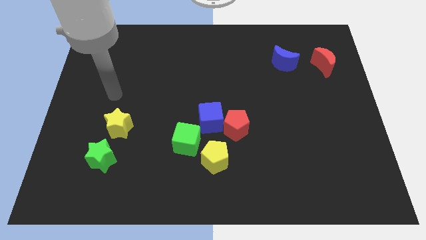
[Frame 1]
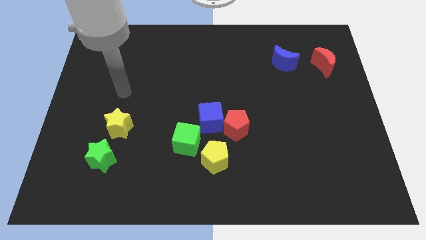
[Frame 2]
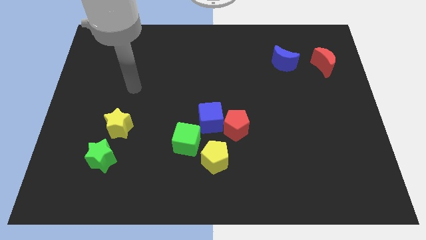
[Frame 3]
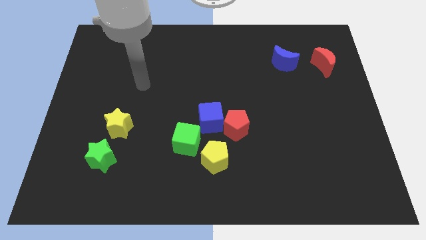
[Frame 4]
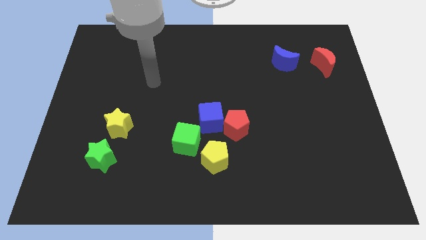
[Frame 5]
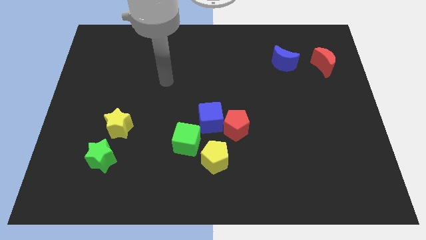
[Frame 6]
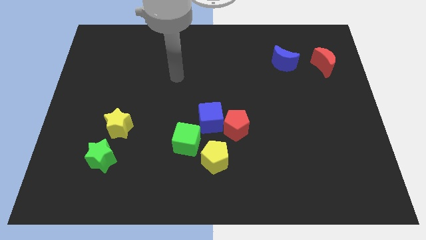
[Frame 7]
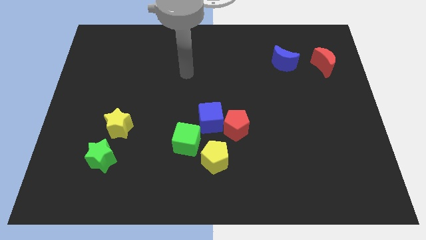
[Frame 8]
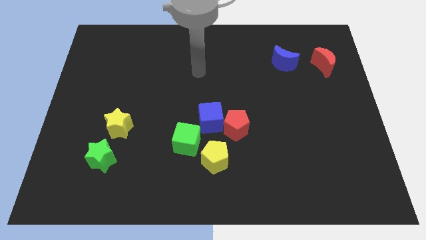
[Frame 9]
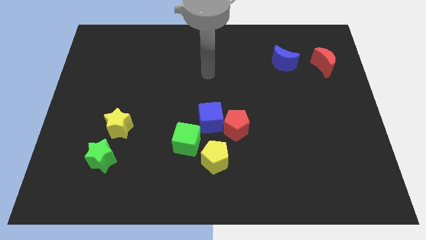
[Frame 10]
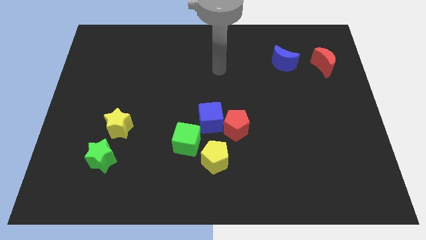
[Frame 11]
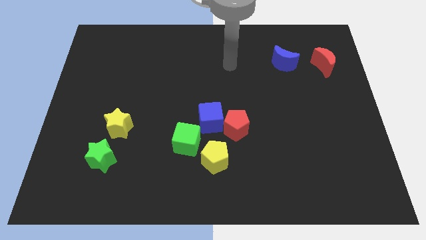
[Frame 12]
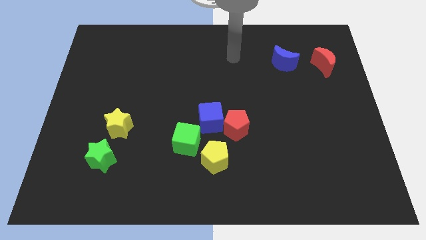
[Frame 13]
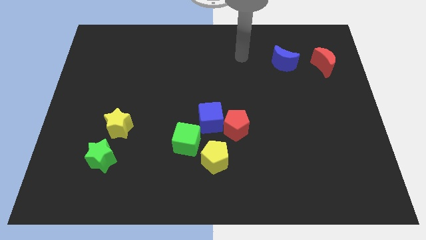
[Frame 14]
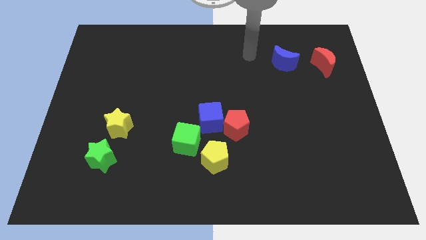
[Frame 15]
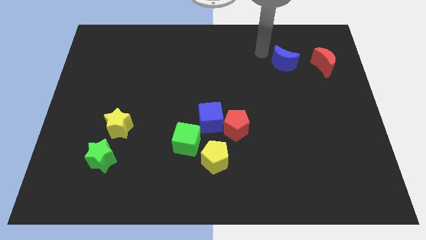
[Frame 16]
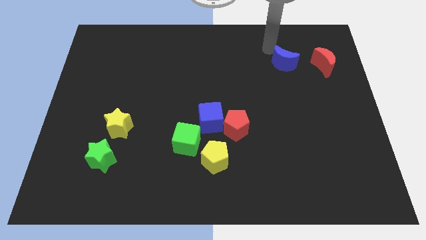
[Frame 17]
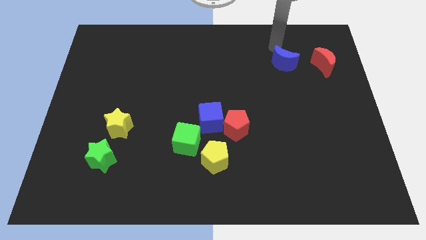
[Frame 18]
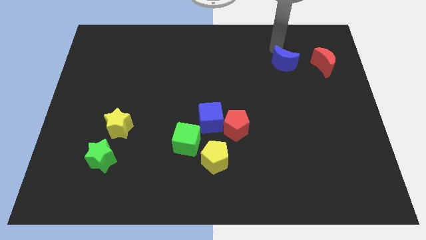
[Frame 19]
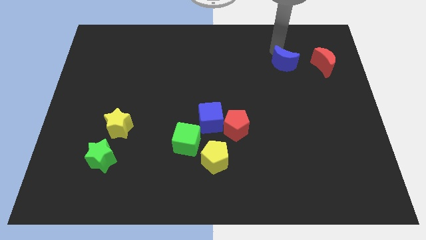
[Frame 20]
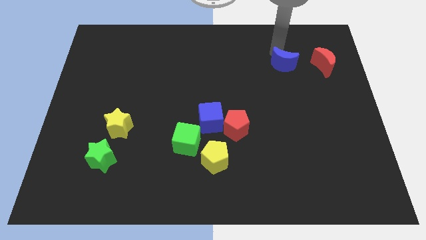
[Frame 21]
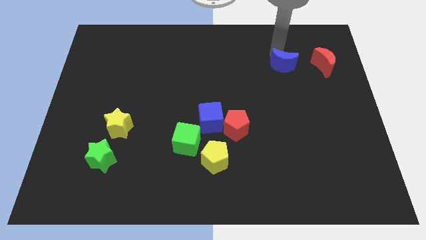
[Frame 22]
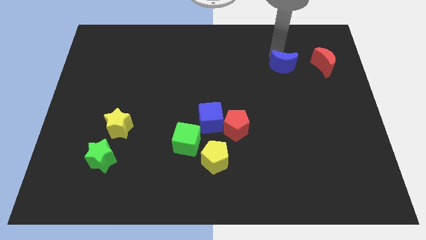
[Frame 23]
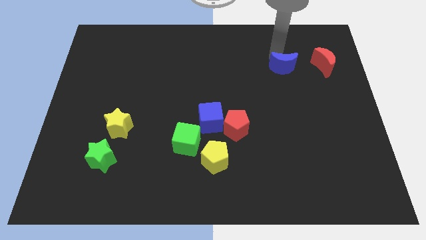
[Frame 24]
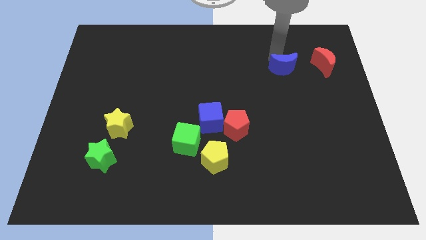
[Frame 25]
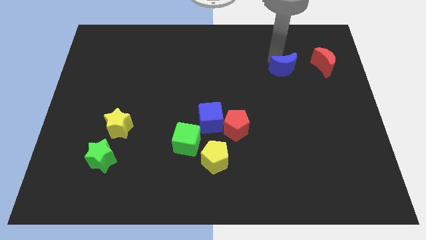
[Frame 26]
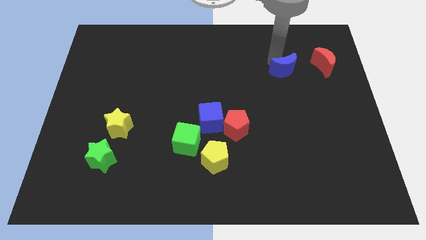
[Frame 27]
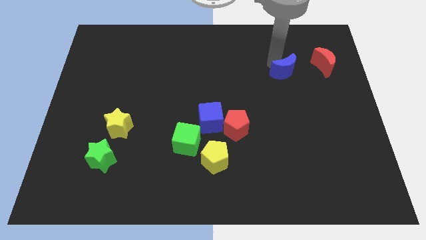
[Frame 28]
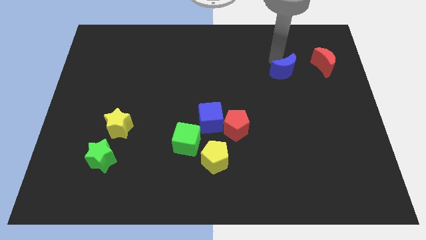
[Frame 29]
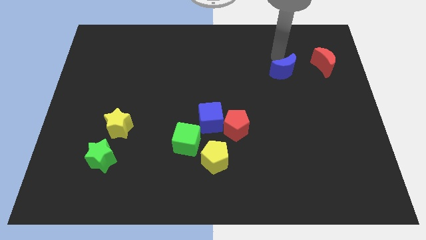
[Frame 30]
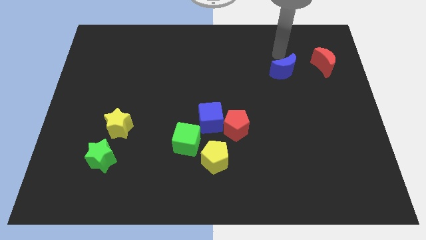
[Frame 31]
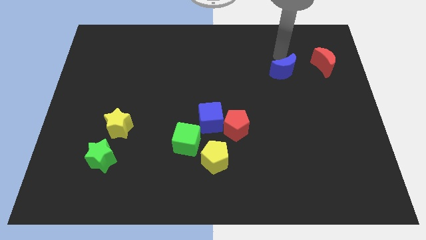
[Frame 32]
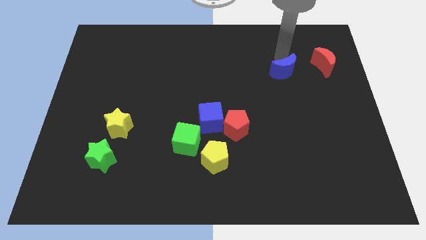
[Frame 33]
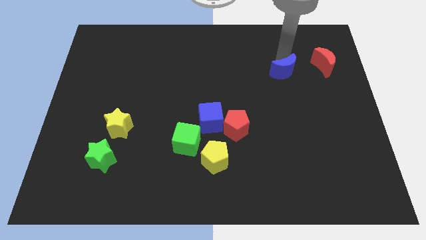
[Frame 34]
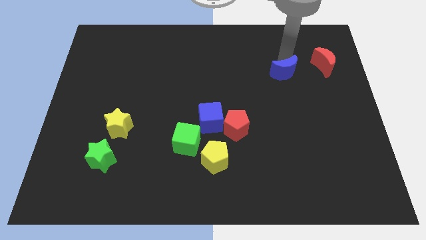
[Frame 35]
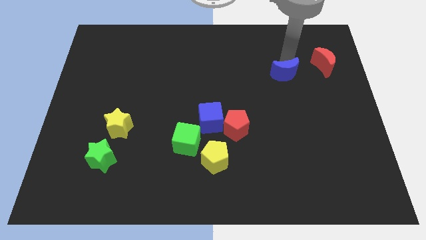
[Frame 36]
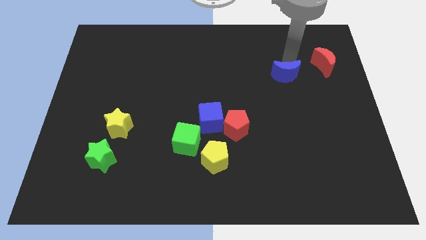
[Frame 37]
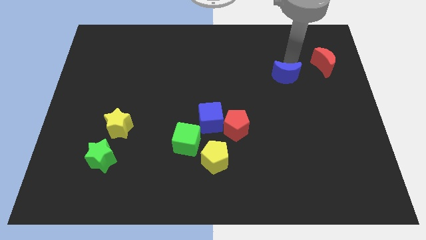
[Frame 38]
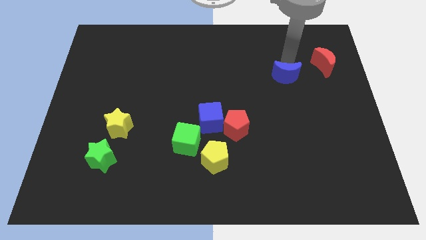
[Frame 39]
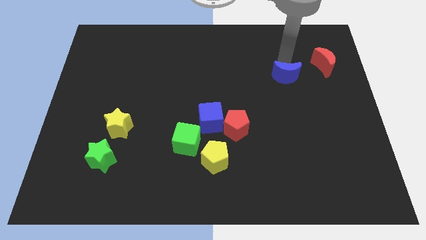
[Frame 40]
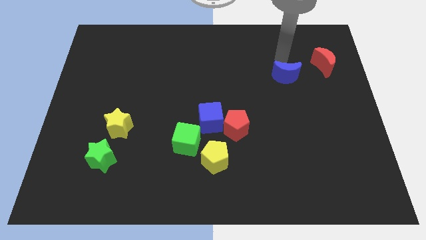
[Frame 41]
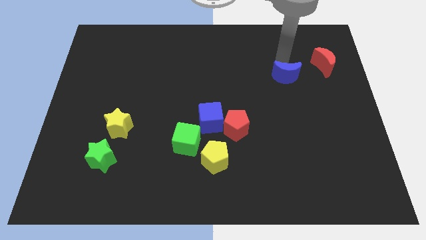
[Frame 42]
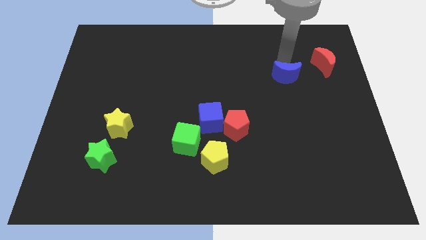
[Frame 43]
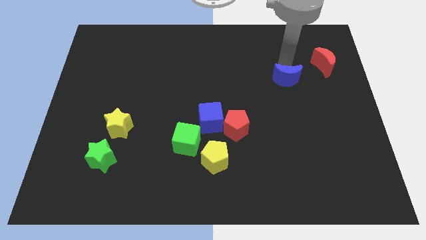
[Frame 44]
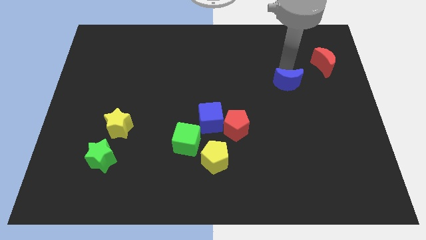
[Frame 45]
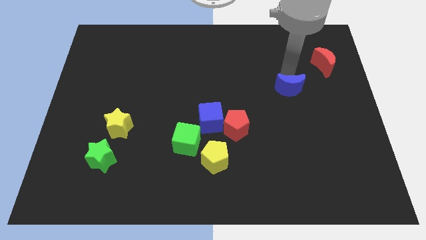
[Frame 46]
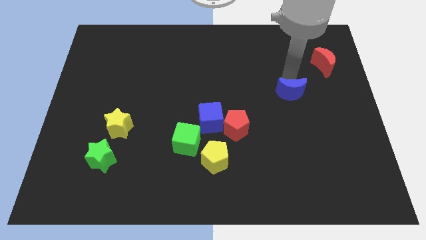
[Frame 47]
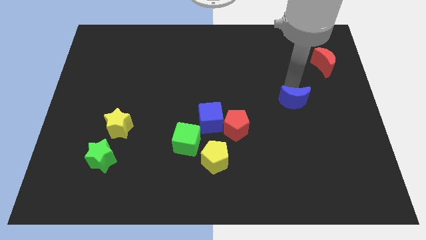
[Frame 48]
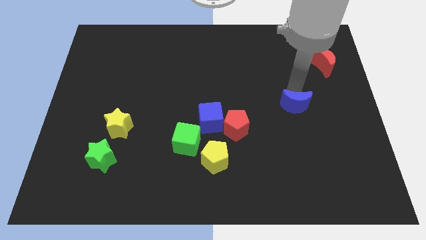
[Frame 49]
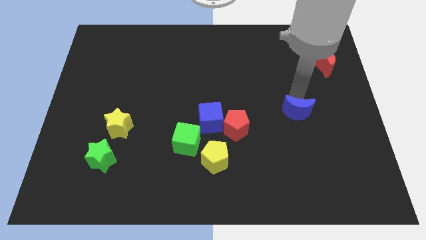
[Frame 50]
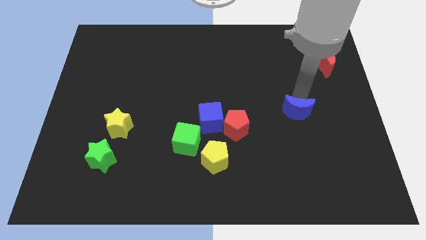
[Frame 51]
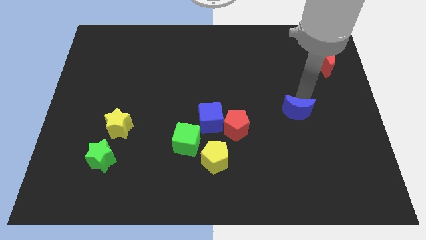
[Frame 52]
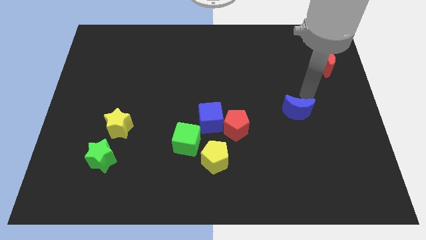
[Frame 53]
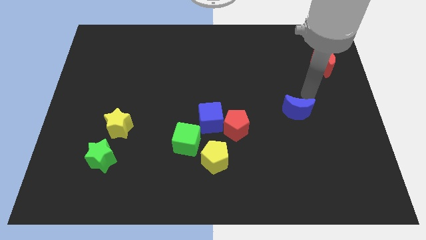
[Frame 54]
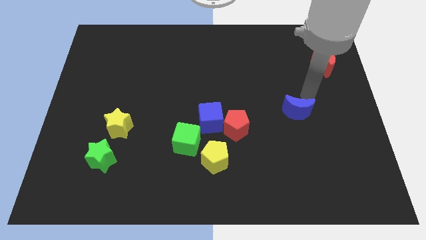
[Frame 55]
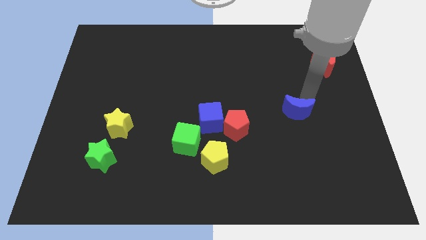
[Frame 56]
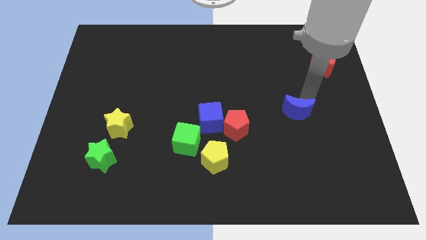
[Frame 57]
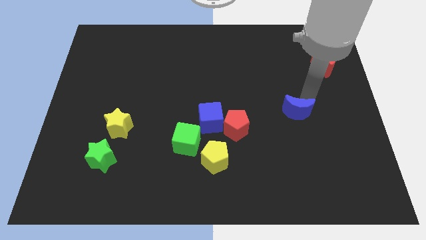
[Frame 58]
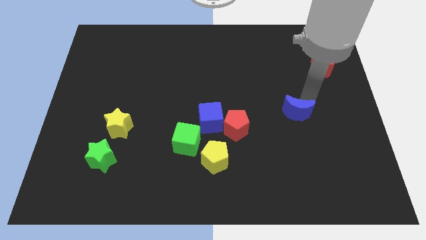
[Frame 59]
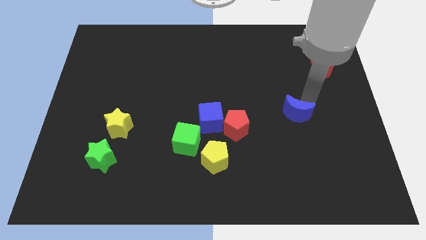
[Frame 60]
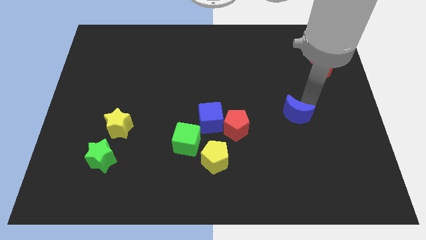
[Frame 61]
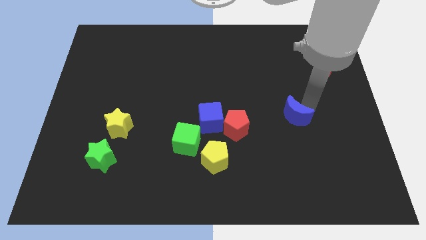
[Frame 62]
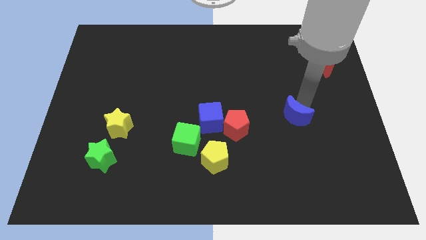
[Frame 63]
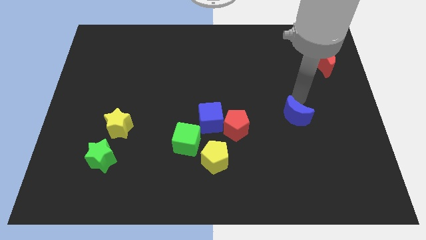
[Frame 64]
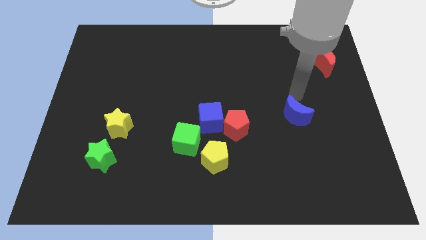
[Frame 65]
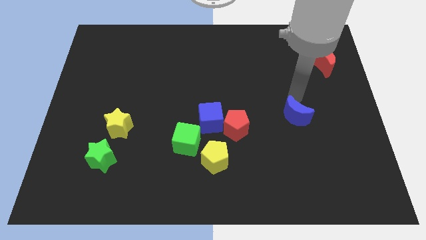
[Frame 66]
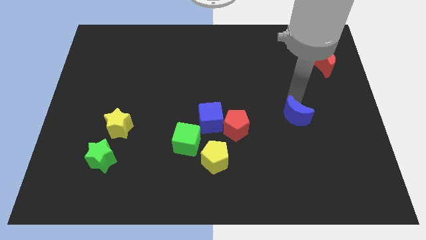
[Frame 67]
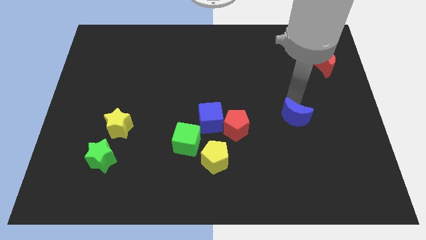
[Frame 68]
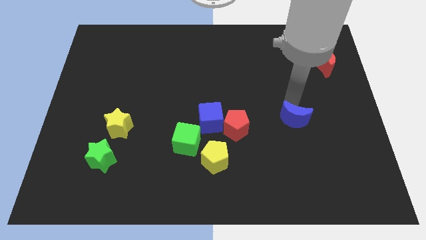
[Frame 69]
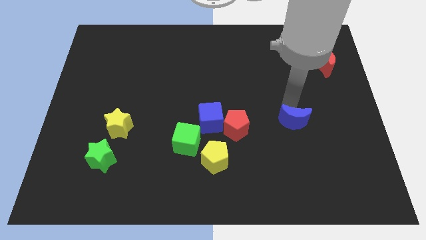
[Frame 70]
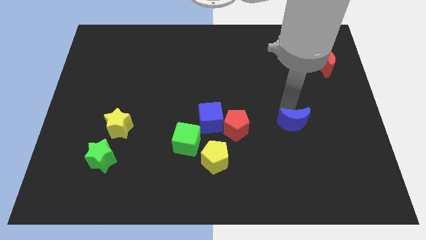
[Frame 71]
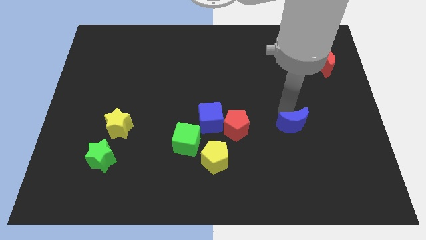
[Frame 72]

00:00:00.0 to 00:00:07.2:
move the blue moon downwards

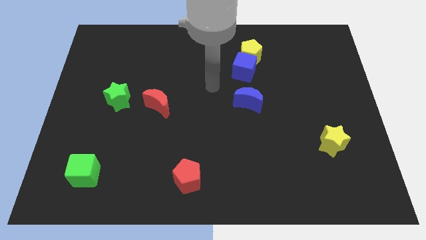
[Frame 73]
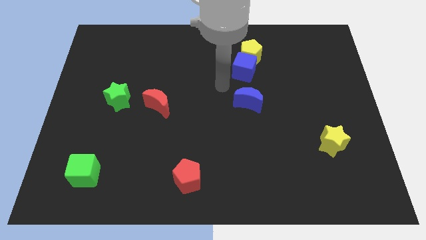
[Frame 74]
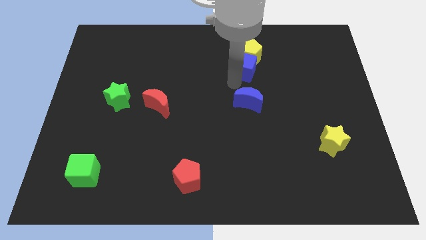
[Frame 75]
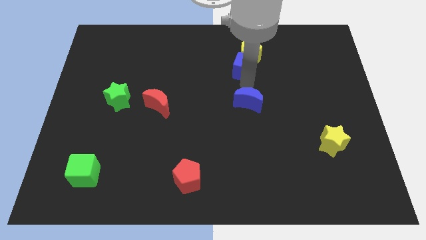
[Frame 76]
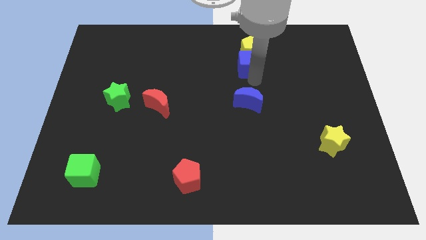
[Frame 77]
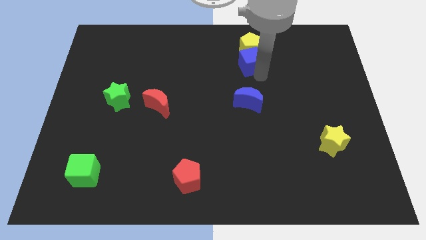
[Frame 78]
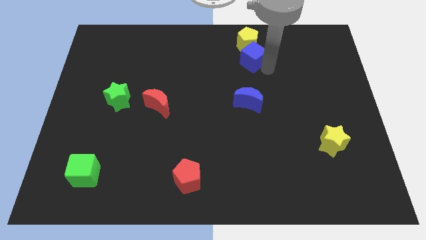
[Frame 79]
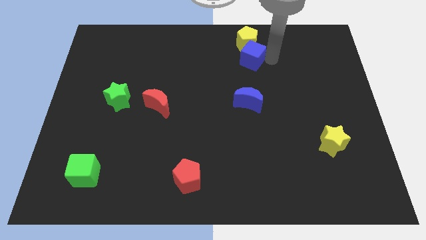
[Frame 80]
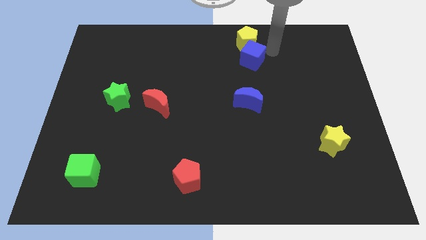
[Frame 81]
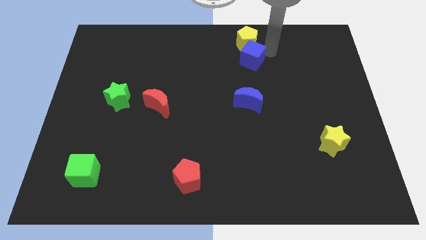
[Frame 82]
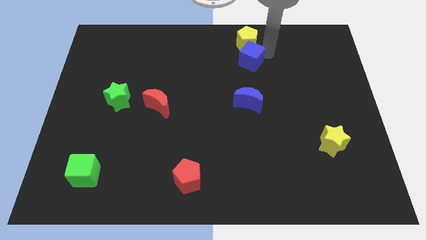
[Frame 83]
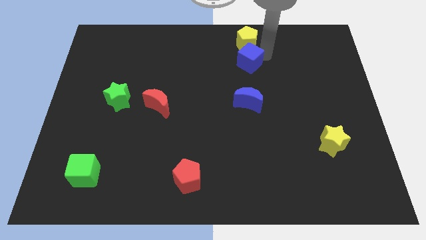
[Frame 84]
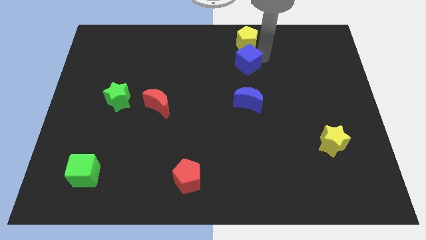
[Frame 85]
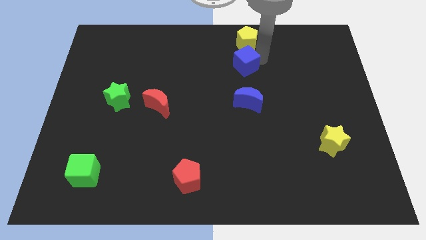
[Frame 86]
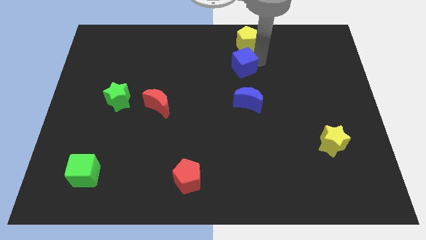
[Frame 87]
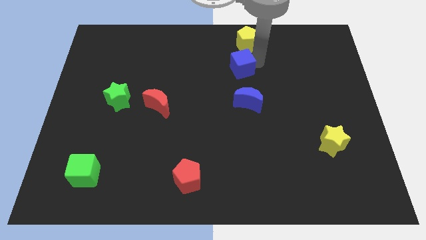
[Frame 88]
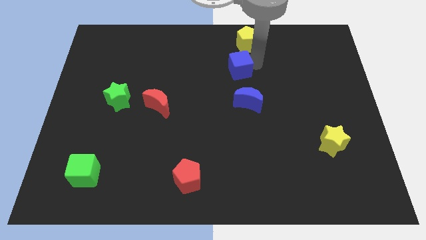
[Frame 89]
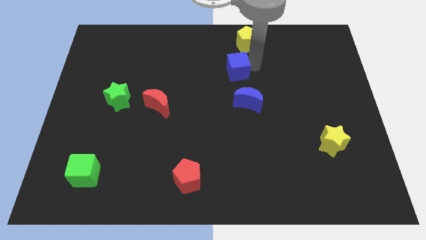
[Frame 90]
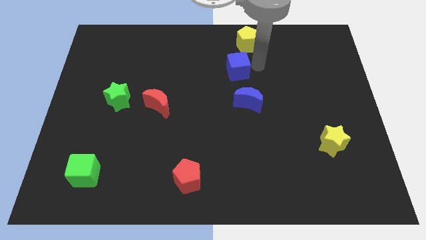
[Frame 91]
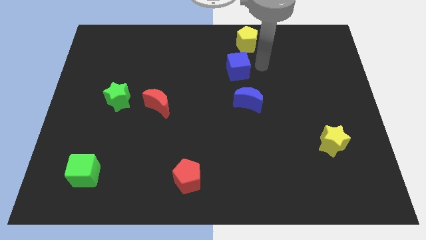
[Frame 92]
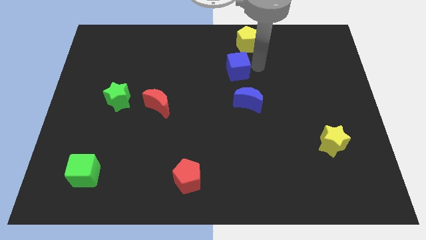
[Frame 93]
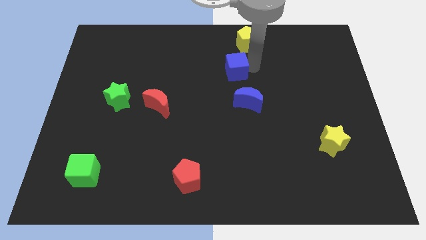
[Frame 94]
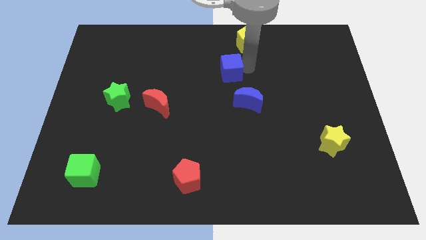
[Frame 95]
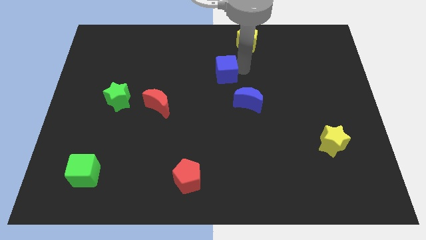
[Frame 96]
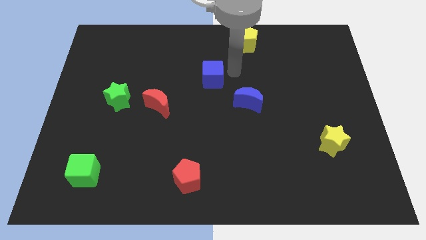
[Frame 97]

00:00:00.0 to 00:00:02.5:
slightly slide the blue cube to the left
